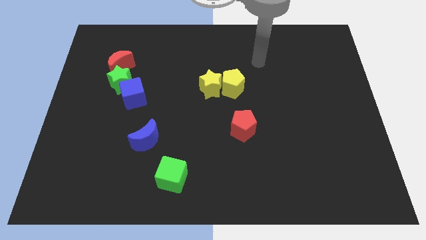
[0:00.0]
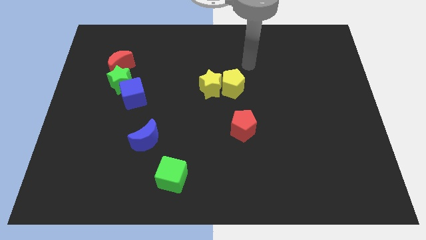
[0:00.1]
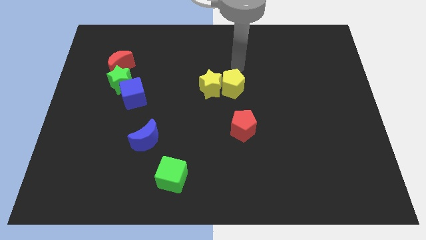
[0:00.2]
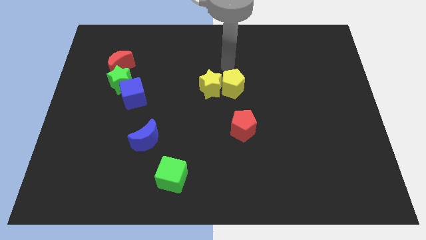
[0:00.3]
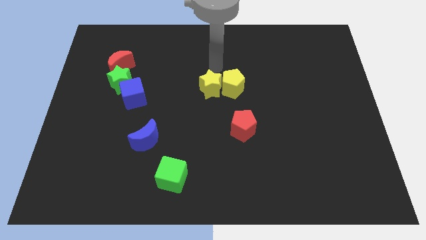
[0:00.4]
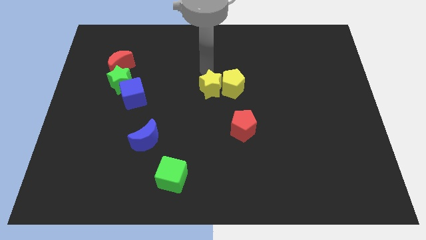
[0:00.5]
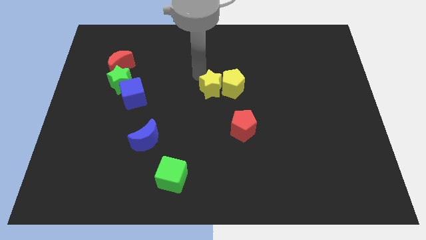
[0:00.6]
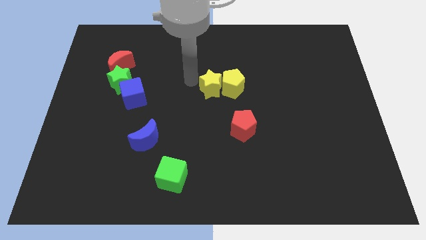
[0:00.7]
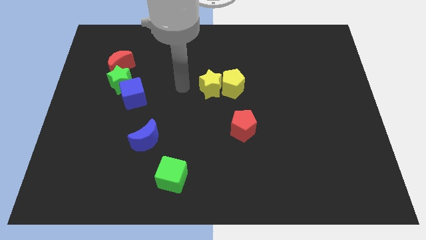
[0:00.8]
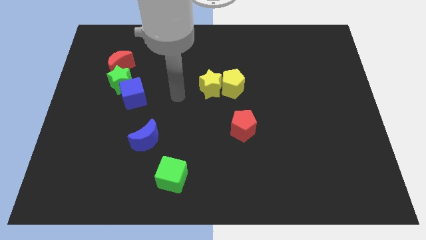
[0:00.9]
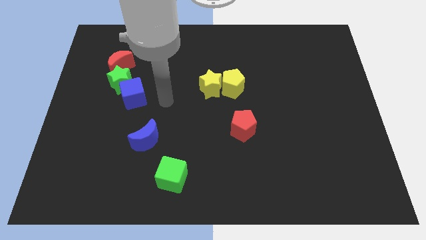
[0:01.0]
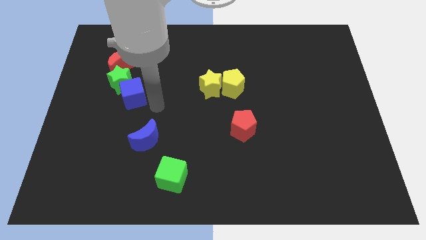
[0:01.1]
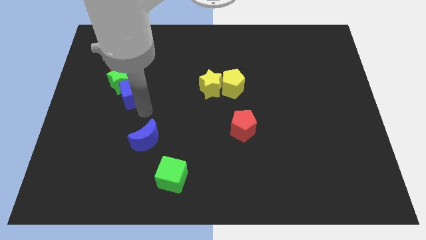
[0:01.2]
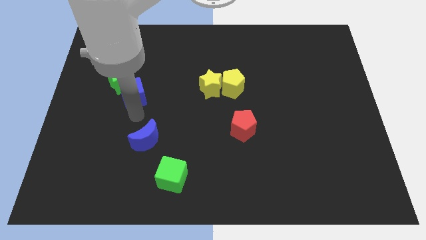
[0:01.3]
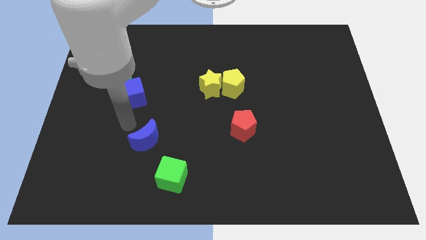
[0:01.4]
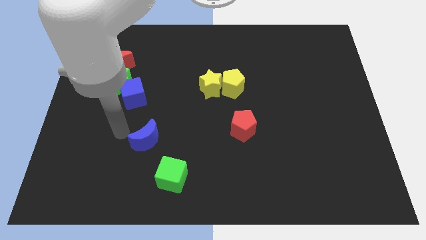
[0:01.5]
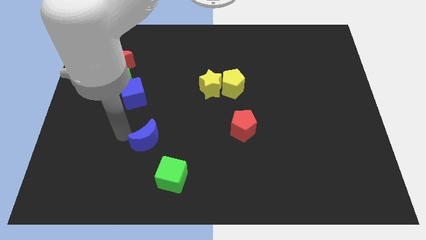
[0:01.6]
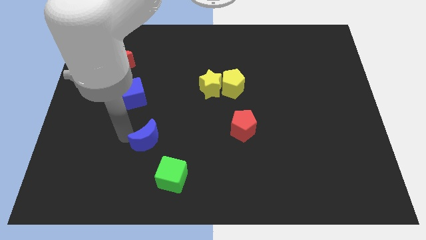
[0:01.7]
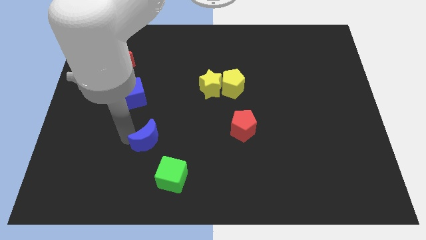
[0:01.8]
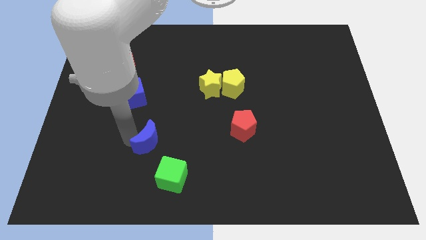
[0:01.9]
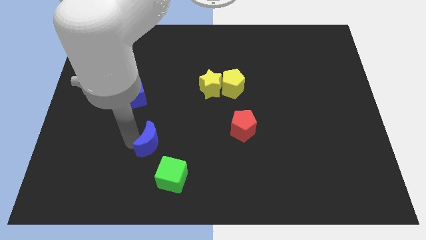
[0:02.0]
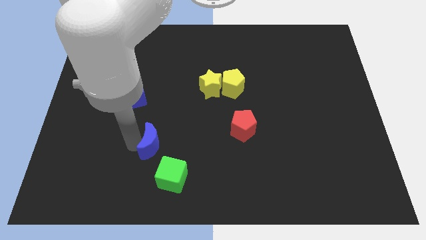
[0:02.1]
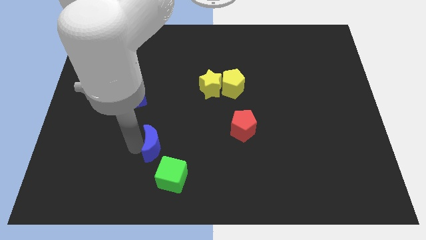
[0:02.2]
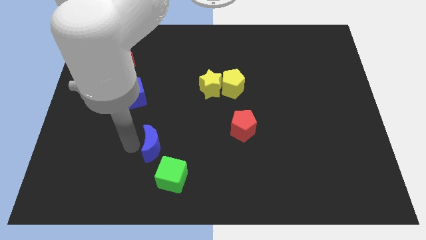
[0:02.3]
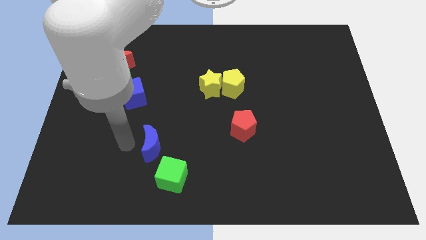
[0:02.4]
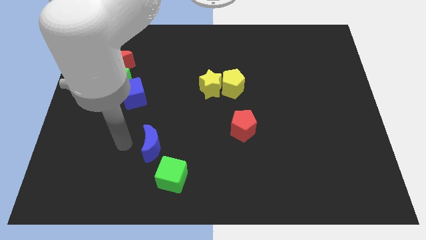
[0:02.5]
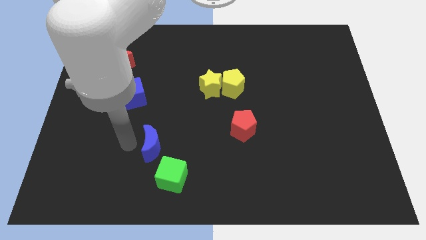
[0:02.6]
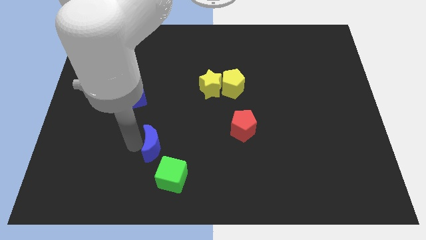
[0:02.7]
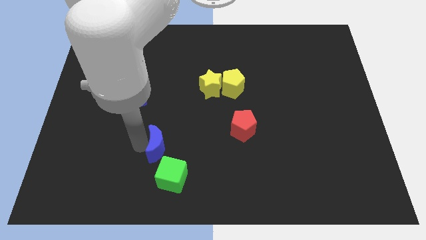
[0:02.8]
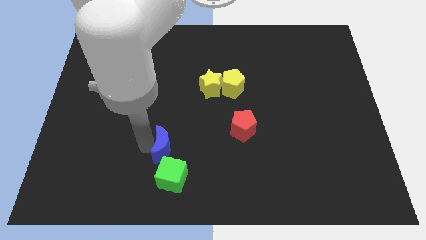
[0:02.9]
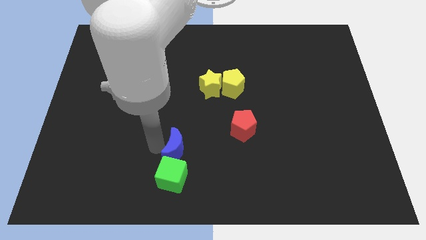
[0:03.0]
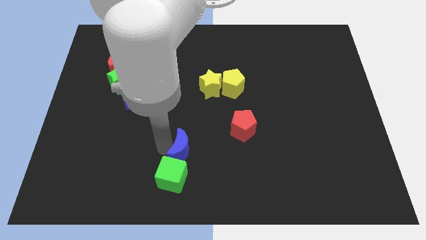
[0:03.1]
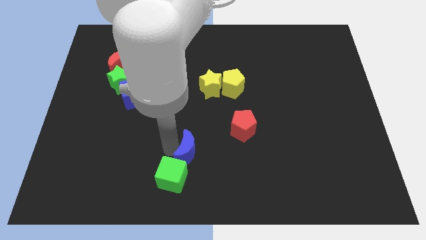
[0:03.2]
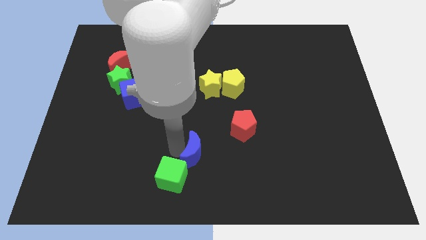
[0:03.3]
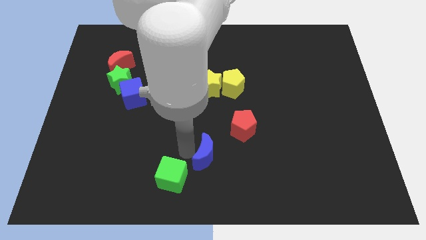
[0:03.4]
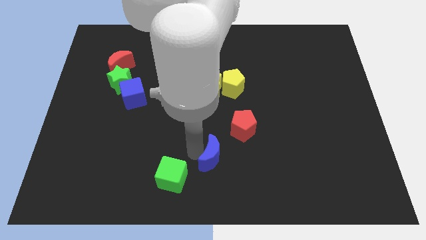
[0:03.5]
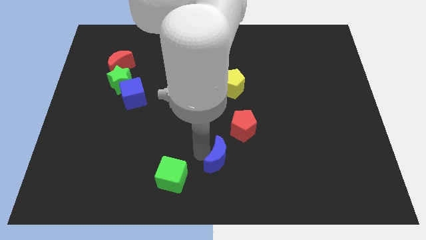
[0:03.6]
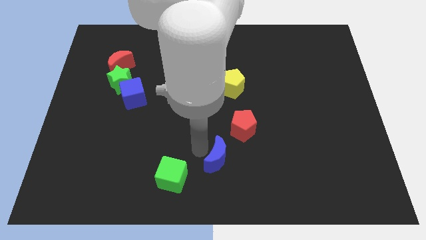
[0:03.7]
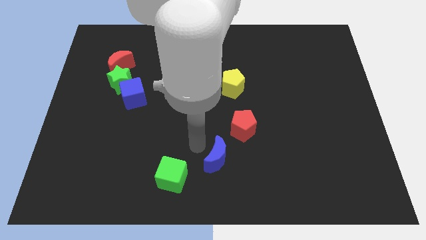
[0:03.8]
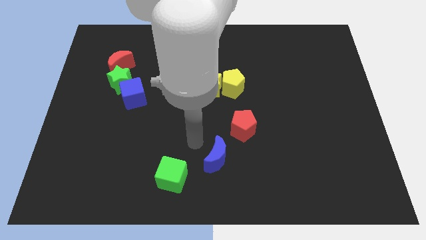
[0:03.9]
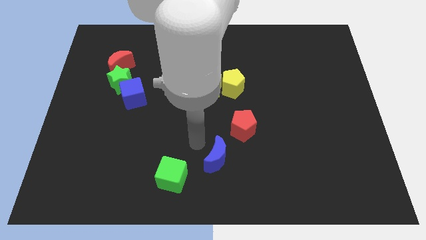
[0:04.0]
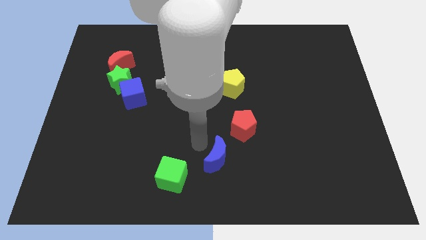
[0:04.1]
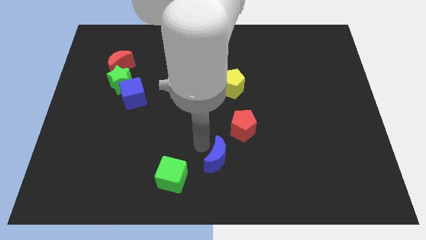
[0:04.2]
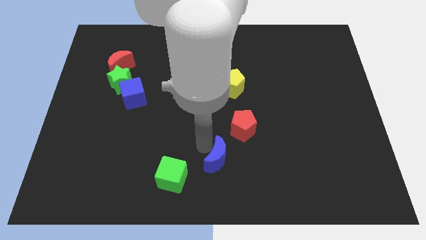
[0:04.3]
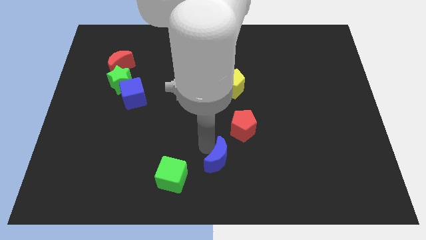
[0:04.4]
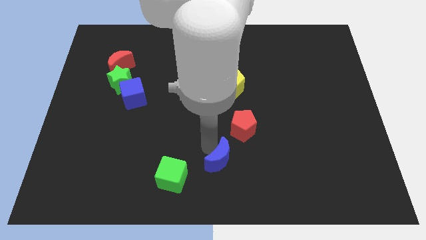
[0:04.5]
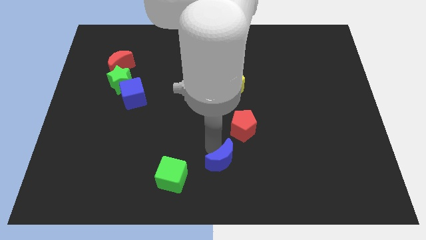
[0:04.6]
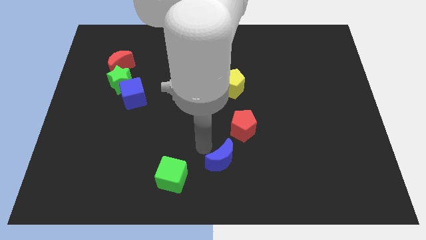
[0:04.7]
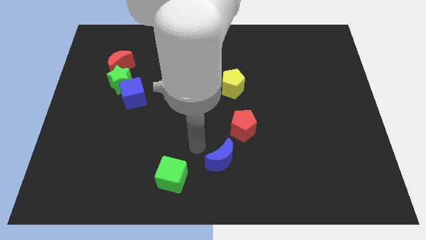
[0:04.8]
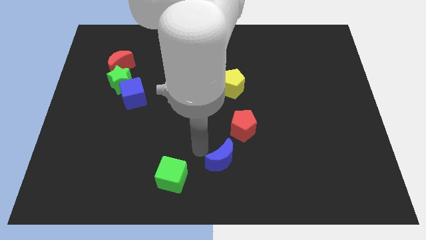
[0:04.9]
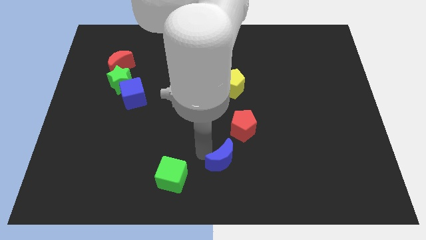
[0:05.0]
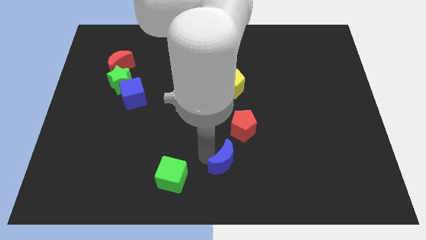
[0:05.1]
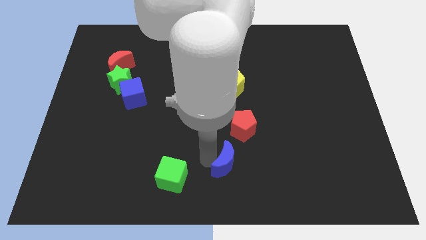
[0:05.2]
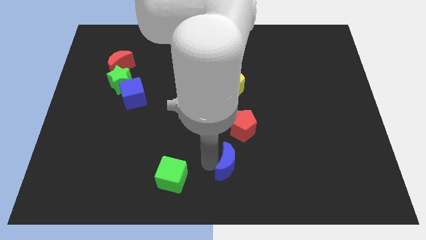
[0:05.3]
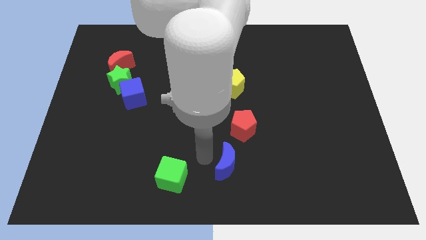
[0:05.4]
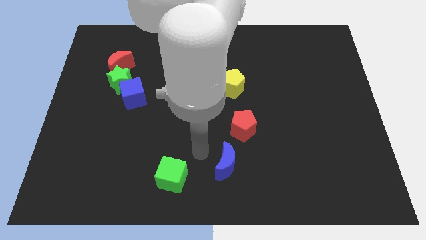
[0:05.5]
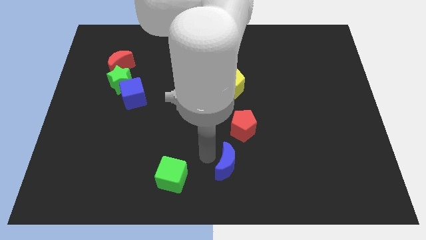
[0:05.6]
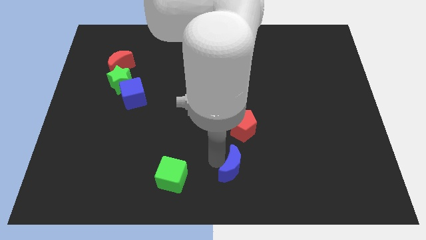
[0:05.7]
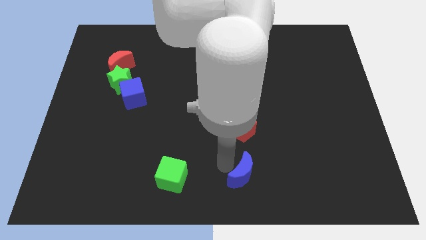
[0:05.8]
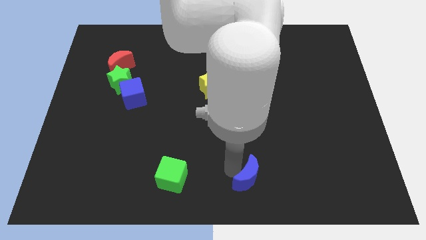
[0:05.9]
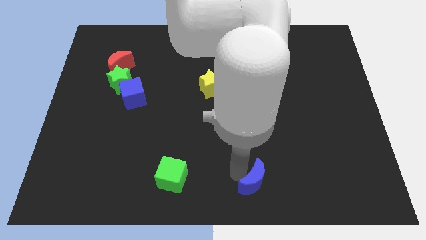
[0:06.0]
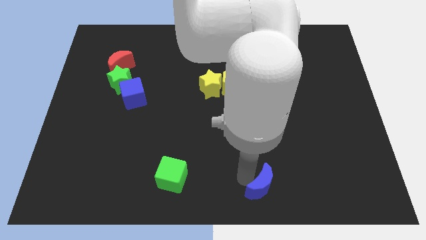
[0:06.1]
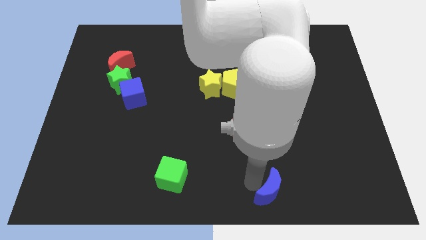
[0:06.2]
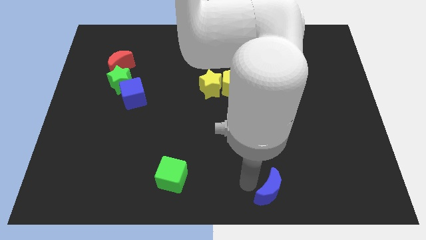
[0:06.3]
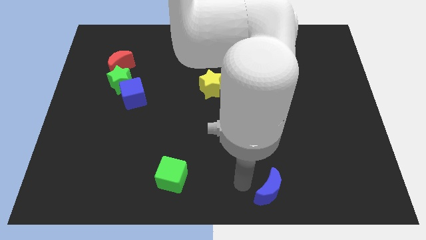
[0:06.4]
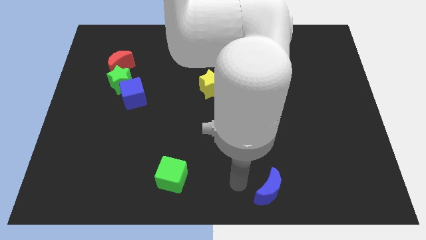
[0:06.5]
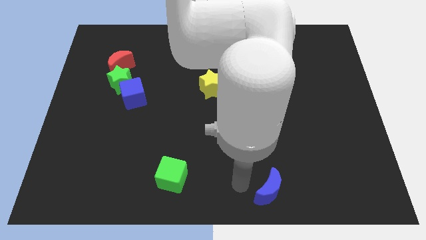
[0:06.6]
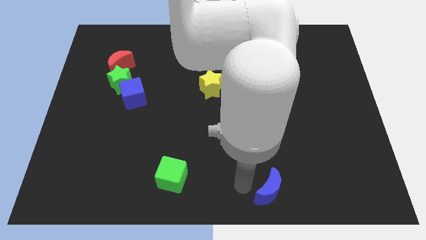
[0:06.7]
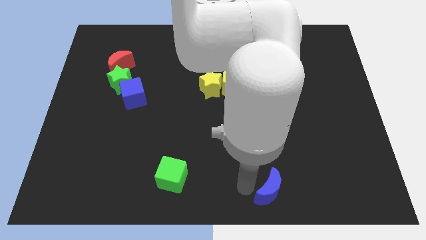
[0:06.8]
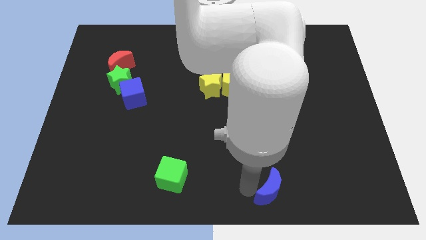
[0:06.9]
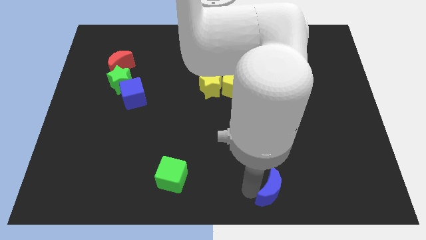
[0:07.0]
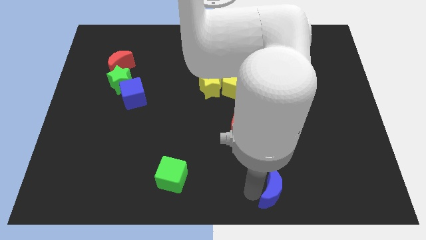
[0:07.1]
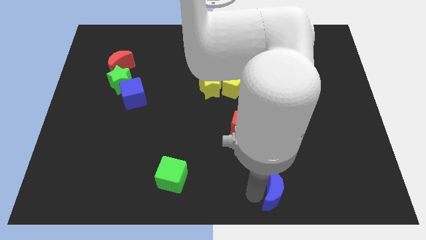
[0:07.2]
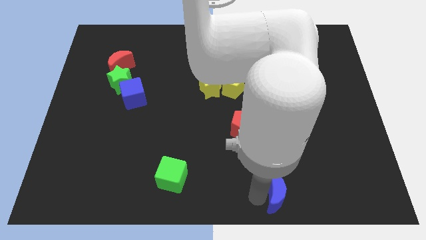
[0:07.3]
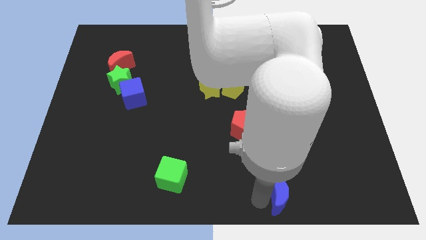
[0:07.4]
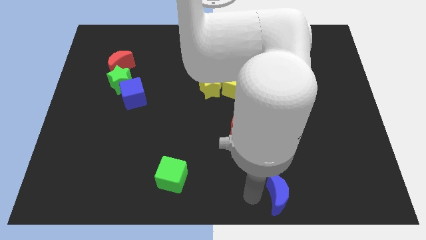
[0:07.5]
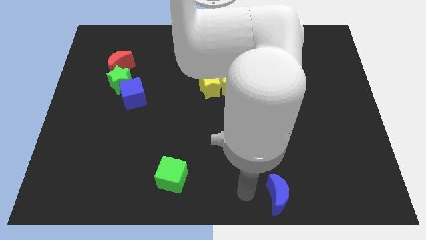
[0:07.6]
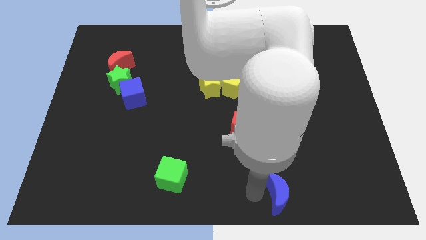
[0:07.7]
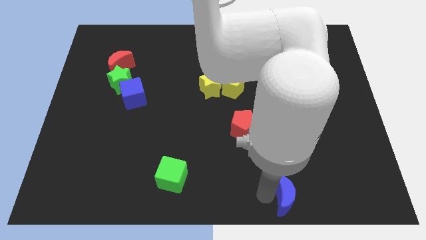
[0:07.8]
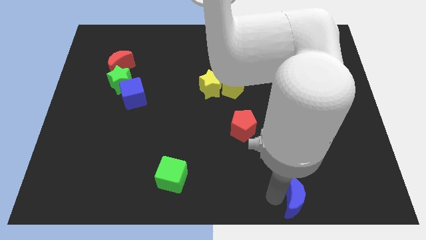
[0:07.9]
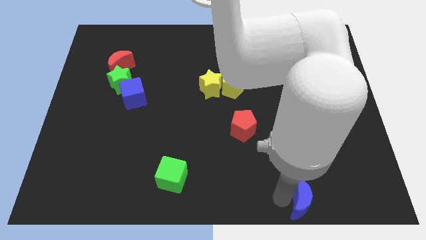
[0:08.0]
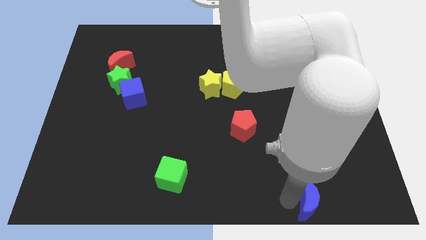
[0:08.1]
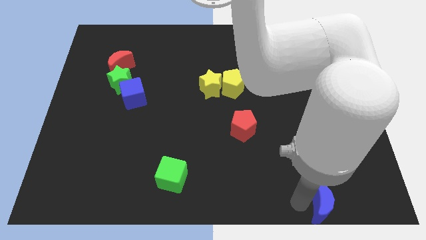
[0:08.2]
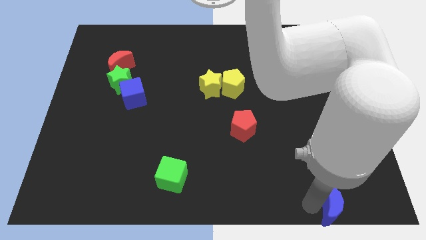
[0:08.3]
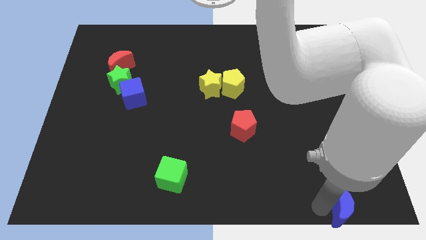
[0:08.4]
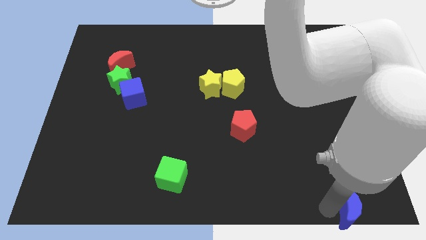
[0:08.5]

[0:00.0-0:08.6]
push the blue moon to the bottom right corner
